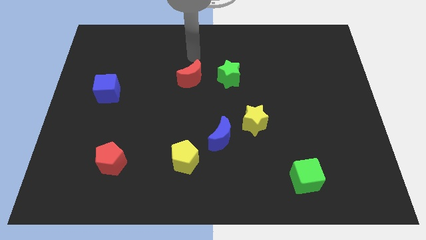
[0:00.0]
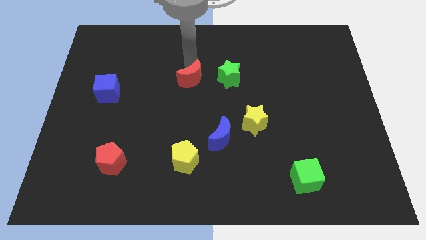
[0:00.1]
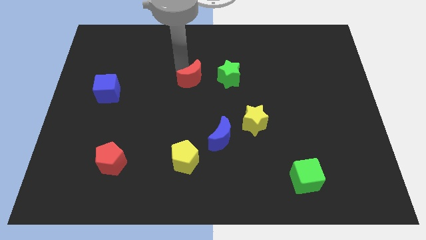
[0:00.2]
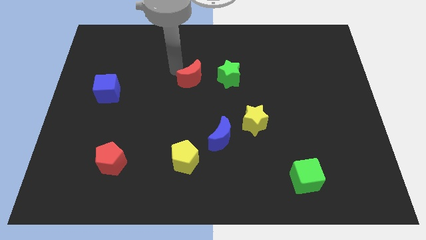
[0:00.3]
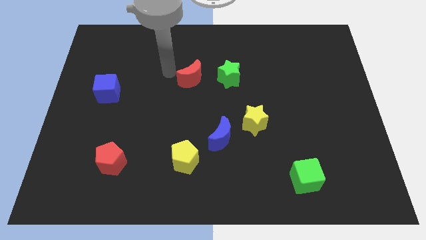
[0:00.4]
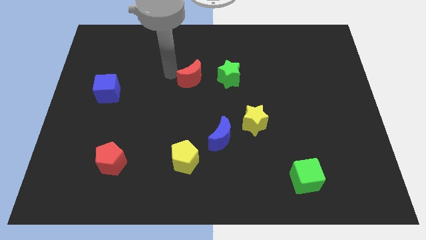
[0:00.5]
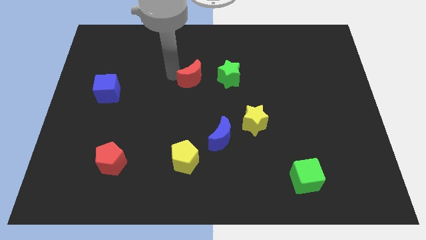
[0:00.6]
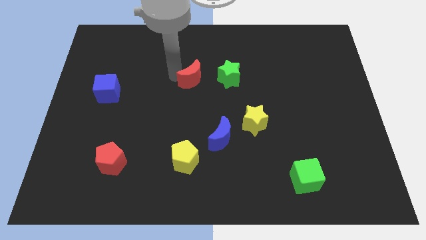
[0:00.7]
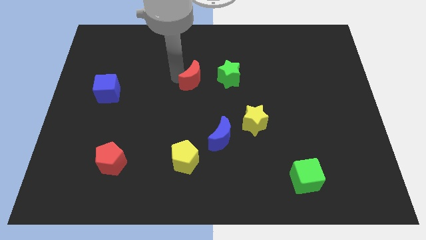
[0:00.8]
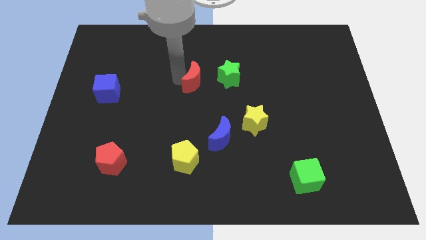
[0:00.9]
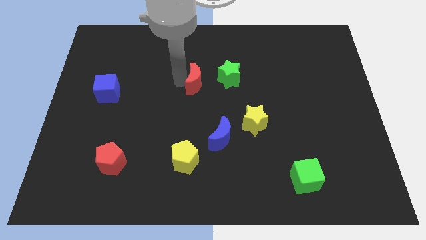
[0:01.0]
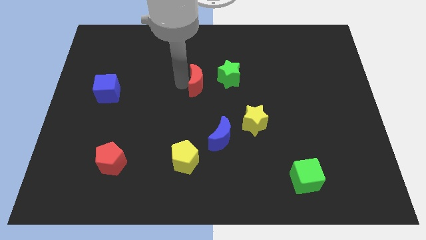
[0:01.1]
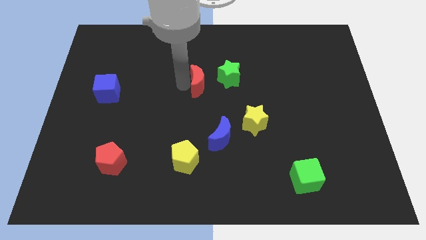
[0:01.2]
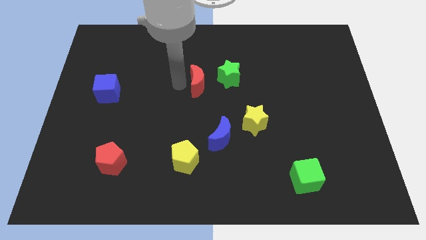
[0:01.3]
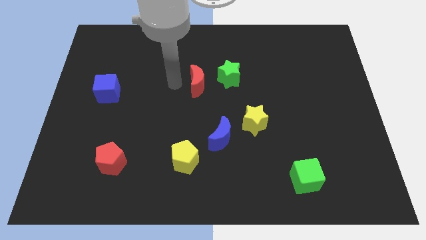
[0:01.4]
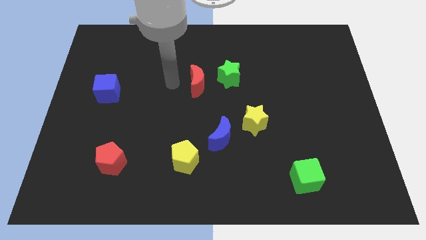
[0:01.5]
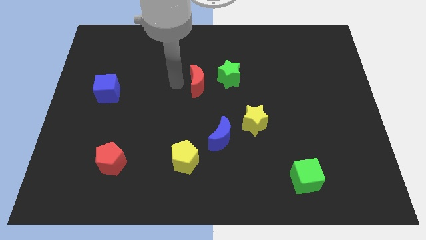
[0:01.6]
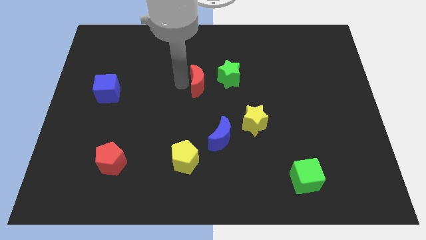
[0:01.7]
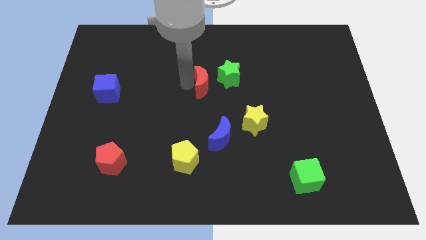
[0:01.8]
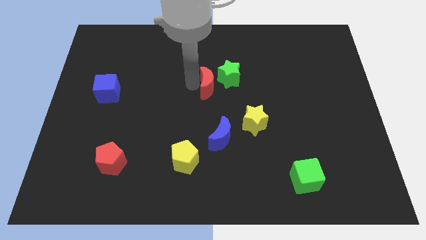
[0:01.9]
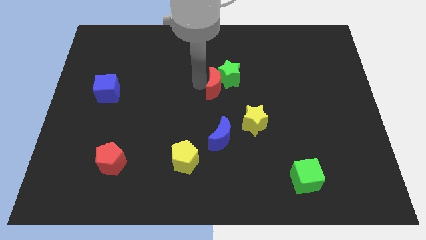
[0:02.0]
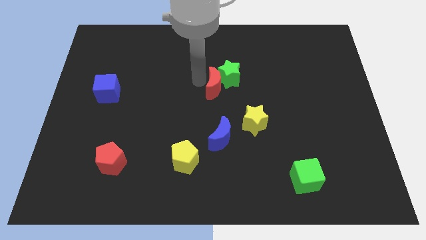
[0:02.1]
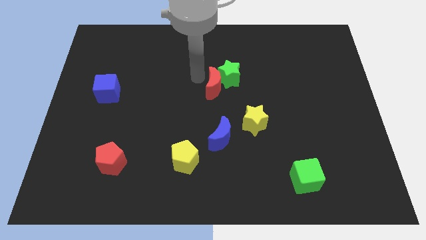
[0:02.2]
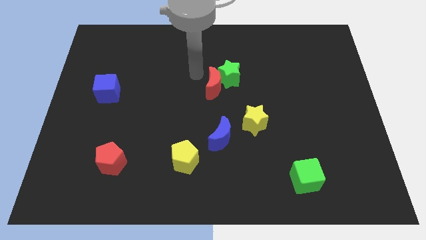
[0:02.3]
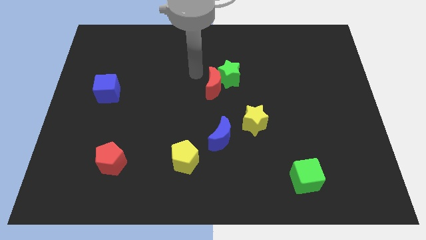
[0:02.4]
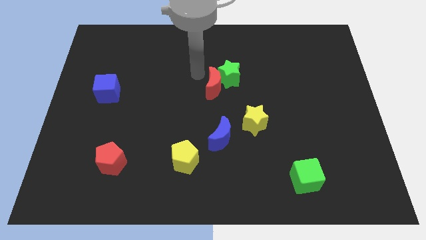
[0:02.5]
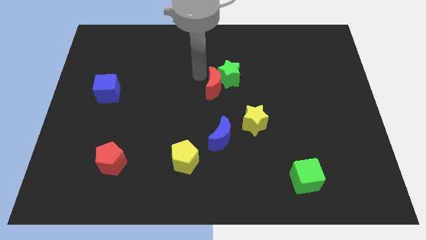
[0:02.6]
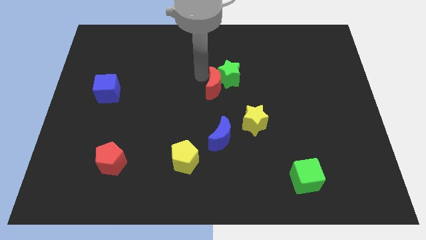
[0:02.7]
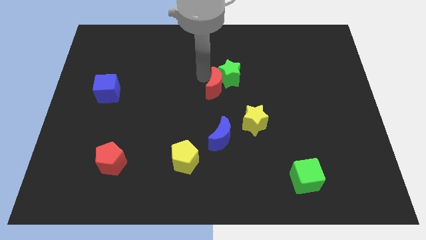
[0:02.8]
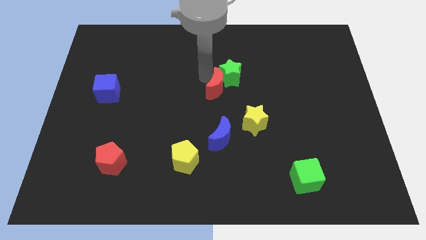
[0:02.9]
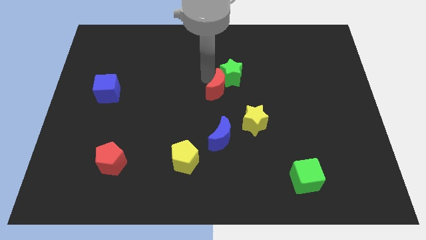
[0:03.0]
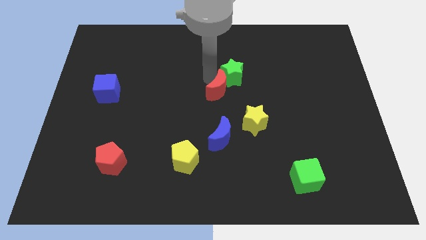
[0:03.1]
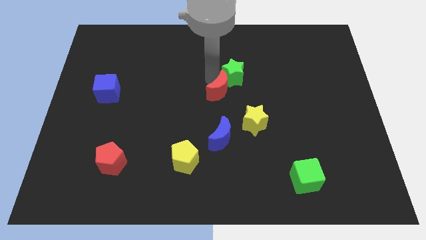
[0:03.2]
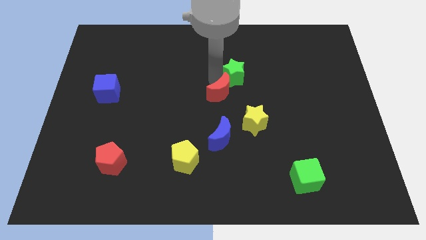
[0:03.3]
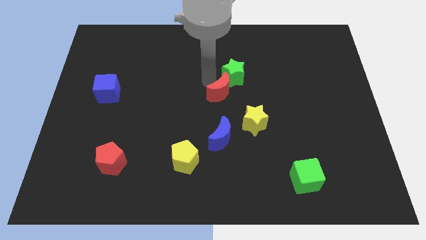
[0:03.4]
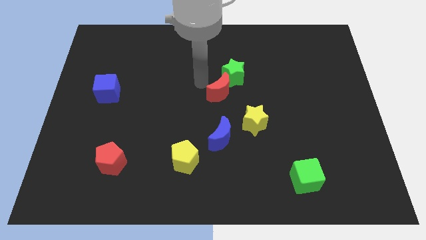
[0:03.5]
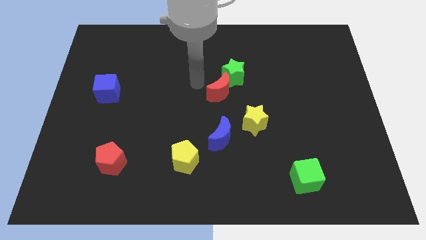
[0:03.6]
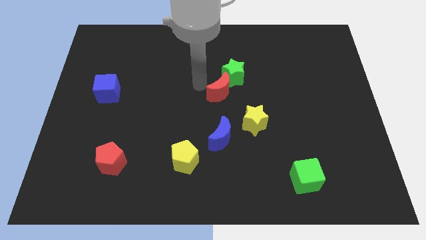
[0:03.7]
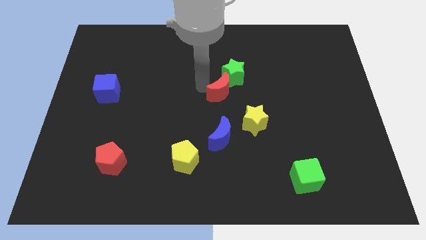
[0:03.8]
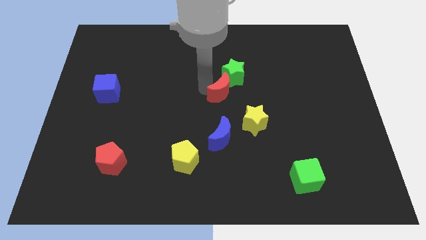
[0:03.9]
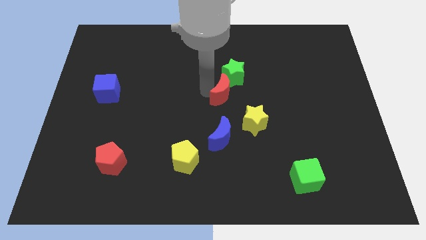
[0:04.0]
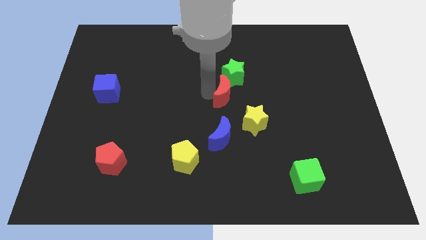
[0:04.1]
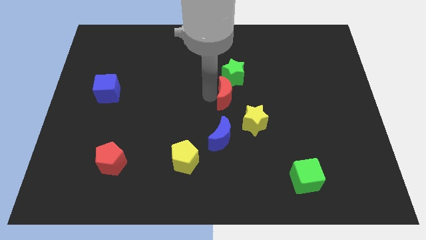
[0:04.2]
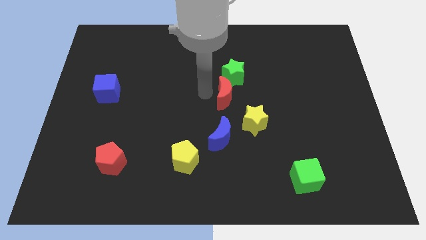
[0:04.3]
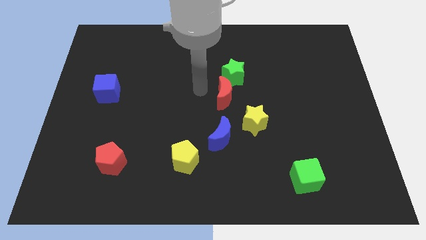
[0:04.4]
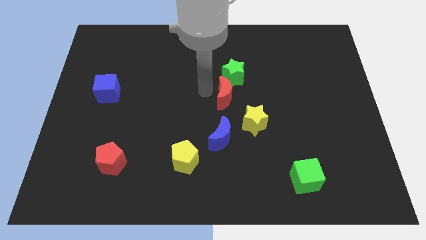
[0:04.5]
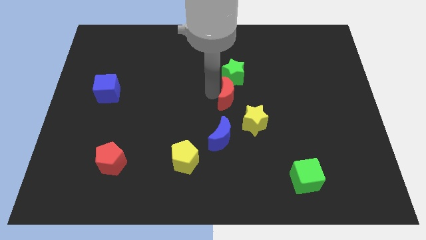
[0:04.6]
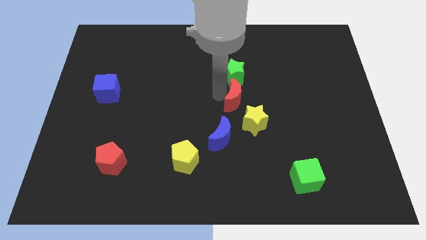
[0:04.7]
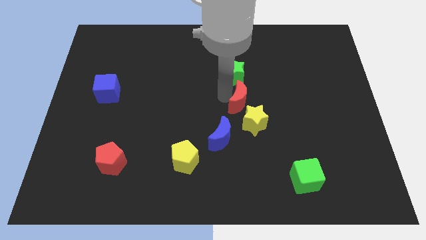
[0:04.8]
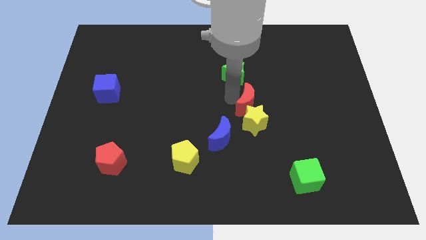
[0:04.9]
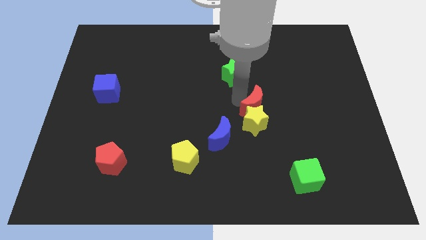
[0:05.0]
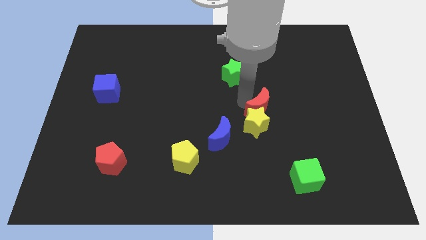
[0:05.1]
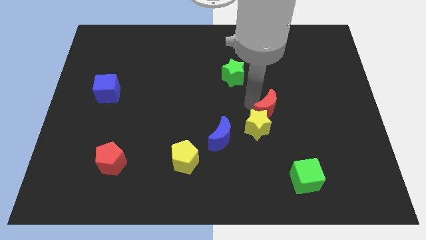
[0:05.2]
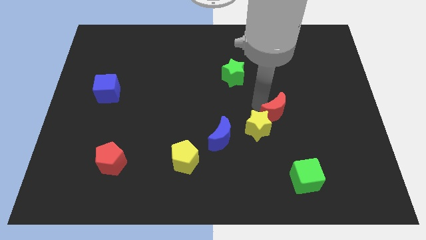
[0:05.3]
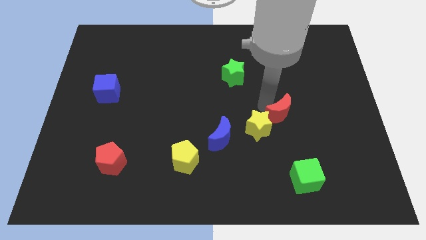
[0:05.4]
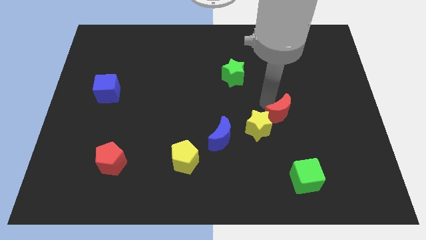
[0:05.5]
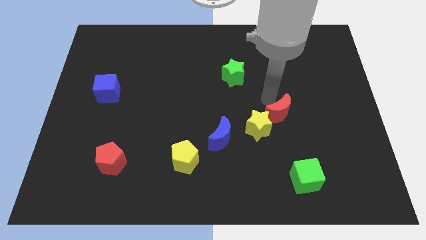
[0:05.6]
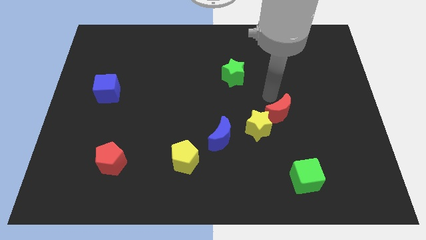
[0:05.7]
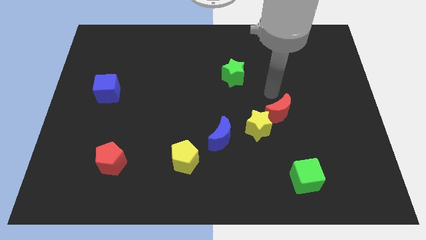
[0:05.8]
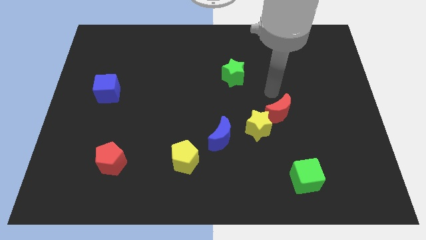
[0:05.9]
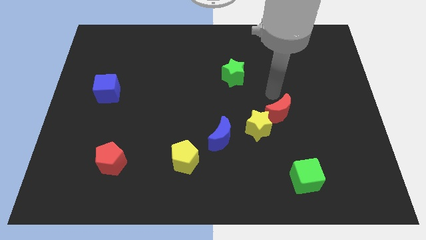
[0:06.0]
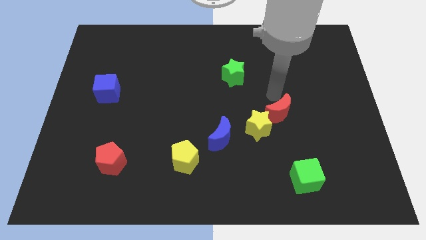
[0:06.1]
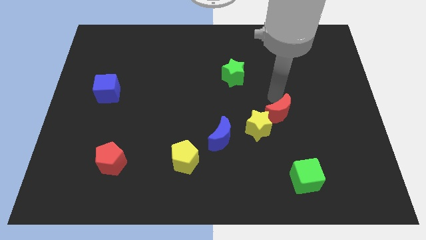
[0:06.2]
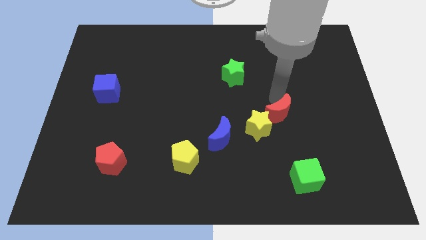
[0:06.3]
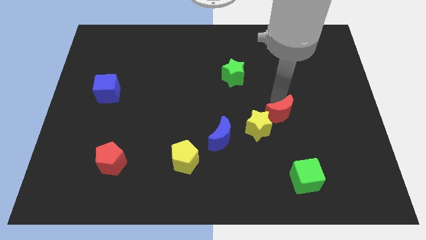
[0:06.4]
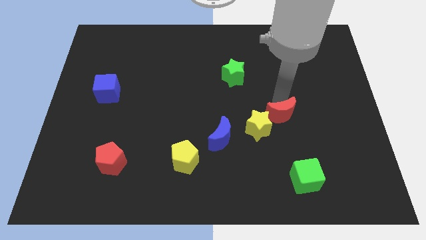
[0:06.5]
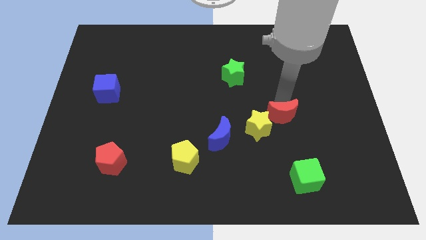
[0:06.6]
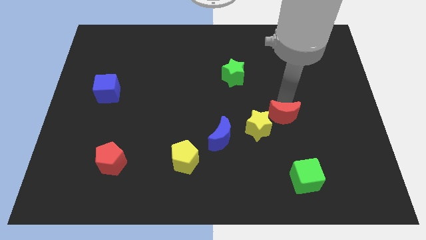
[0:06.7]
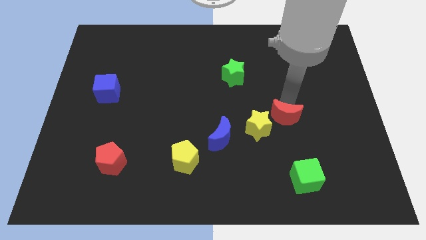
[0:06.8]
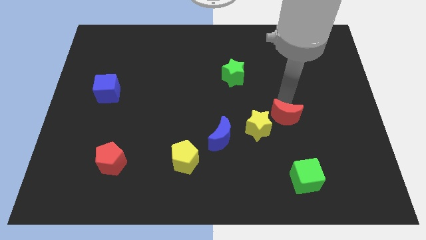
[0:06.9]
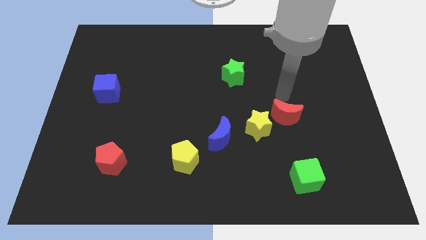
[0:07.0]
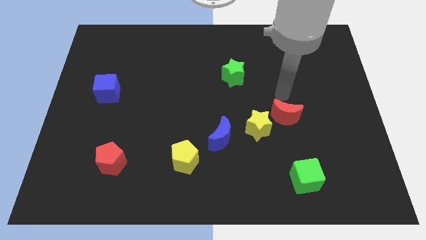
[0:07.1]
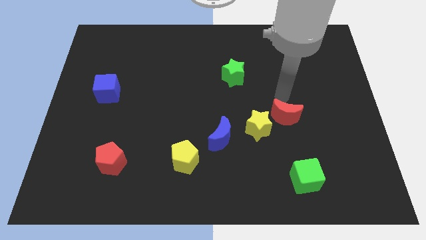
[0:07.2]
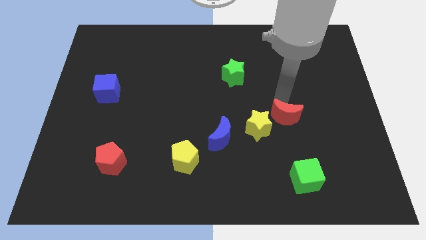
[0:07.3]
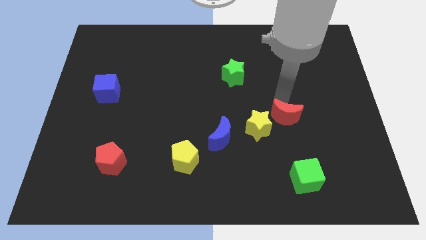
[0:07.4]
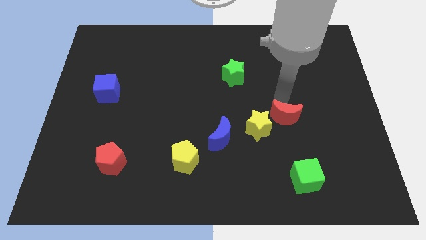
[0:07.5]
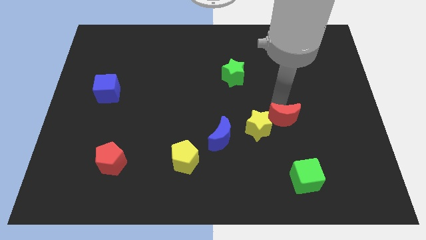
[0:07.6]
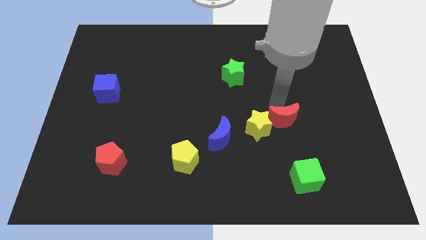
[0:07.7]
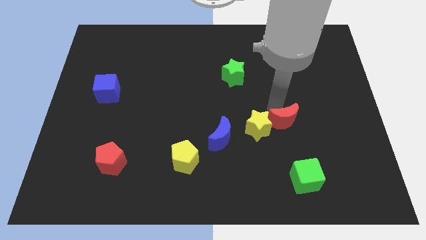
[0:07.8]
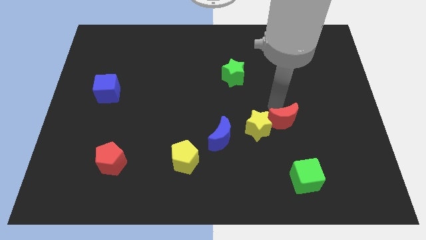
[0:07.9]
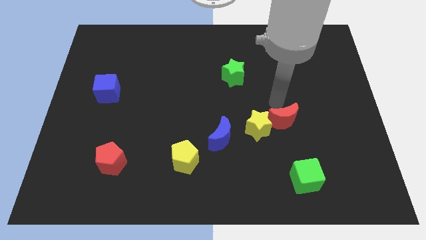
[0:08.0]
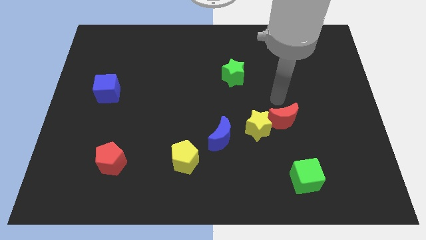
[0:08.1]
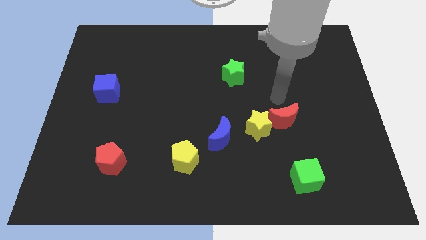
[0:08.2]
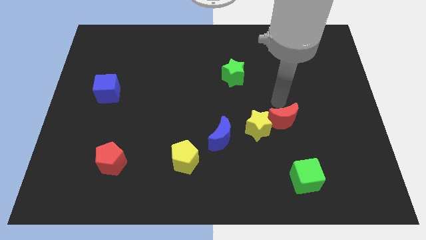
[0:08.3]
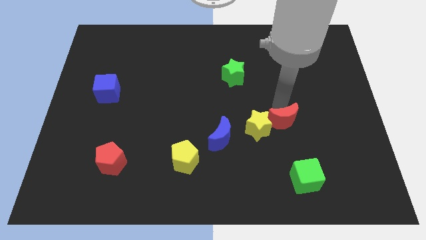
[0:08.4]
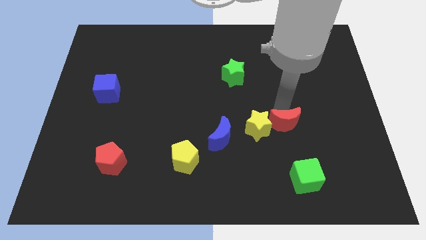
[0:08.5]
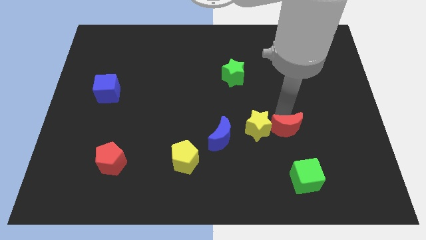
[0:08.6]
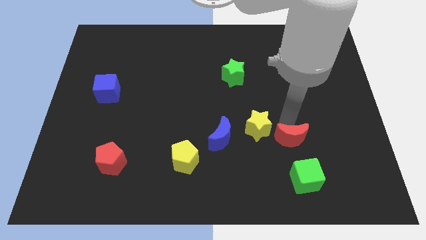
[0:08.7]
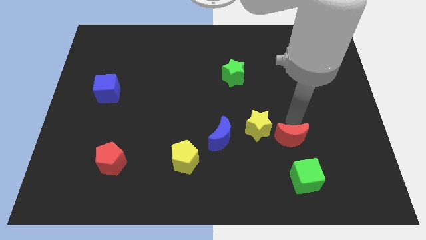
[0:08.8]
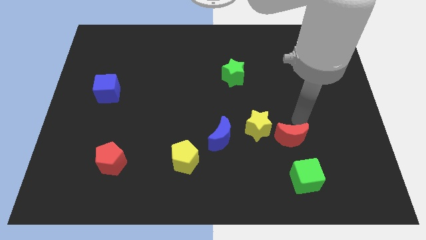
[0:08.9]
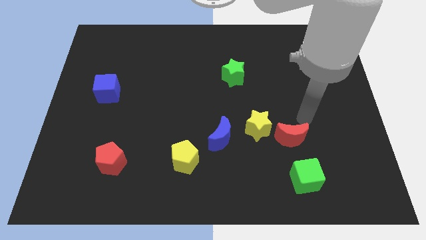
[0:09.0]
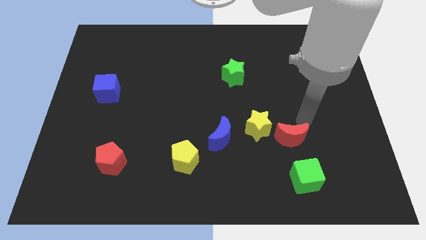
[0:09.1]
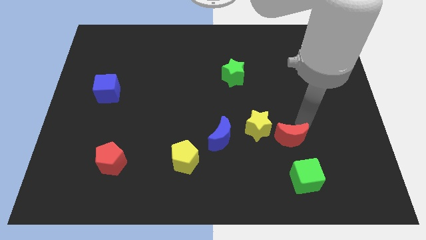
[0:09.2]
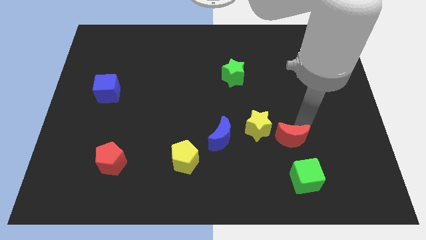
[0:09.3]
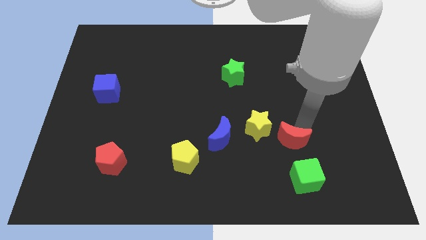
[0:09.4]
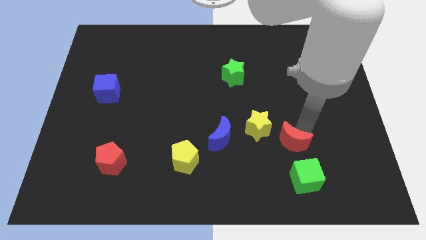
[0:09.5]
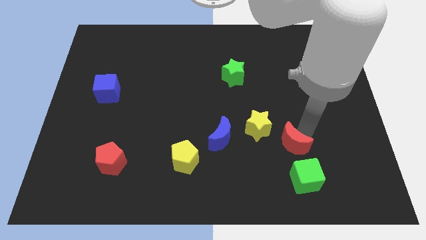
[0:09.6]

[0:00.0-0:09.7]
slide the red moon to the top left side of the green cube
